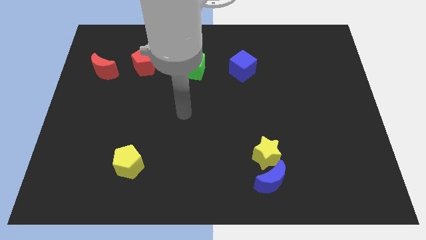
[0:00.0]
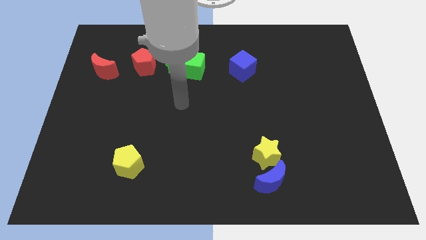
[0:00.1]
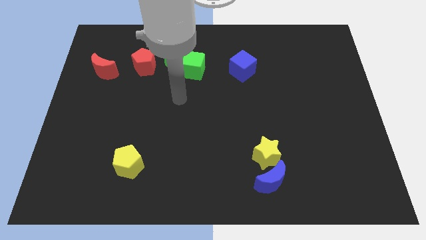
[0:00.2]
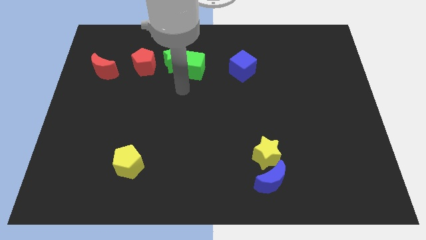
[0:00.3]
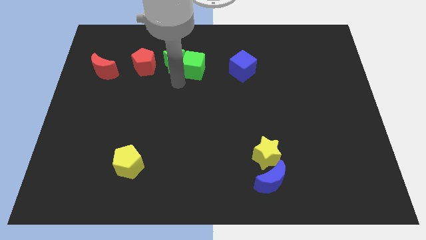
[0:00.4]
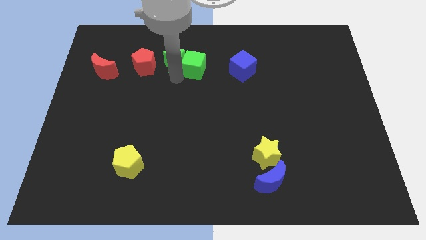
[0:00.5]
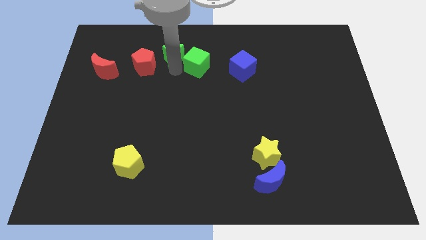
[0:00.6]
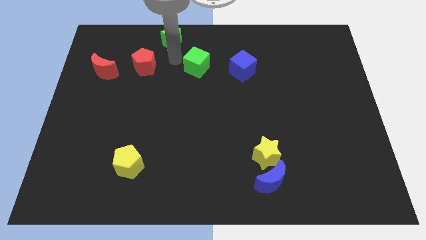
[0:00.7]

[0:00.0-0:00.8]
separate the green cube from the green star

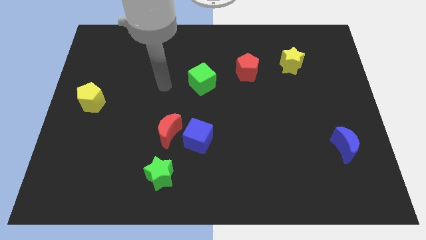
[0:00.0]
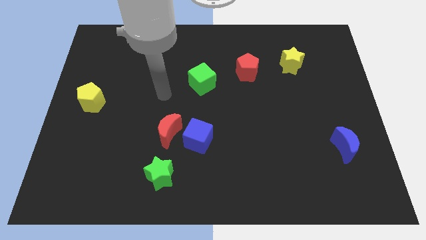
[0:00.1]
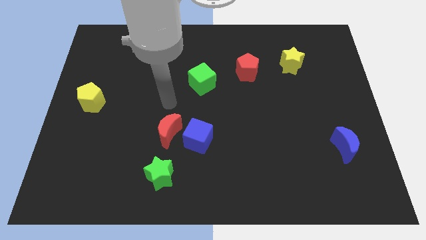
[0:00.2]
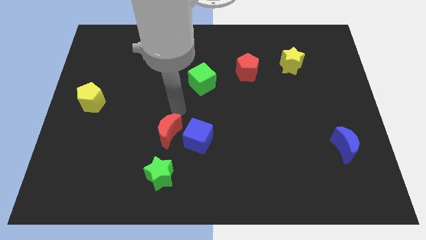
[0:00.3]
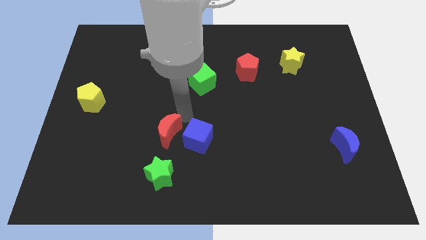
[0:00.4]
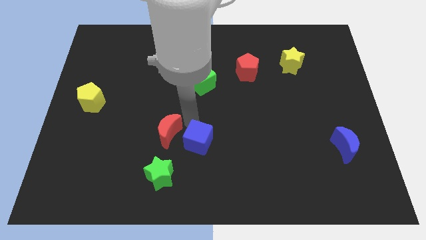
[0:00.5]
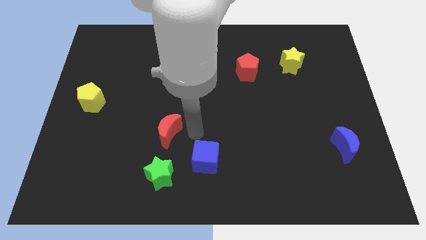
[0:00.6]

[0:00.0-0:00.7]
pull the red moon apart from the blue cube

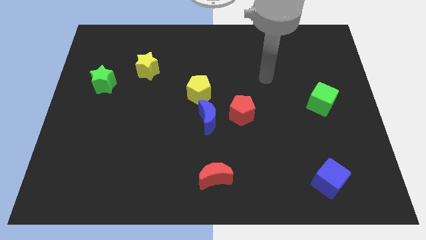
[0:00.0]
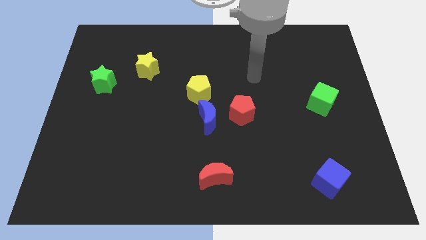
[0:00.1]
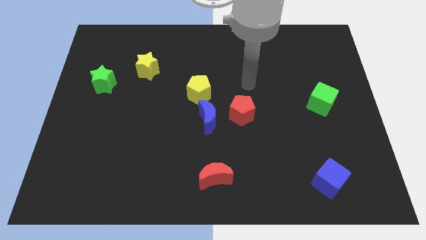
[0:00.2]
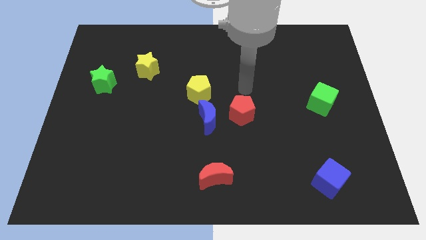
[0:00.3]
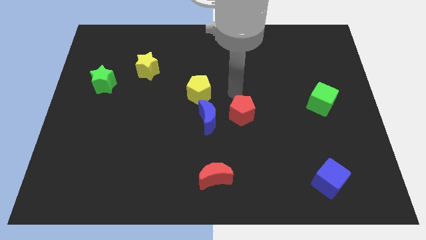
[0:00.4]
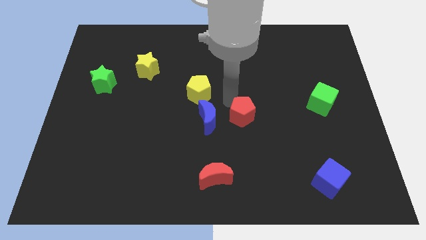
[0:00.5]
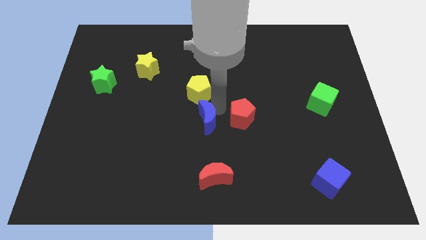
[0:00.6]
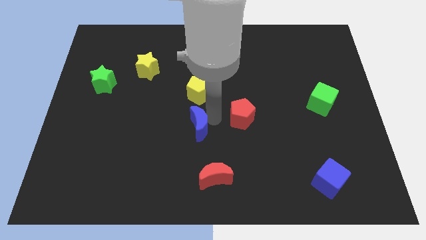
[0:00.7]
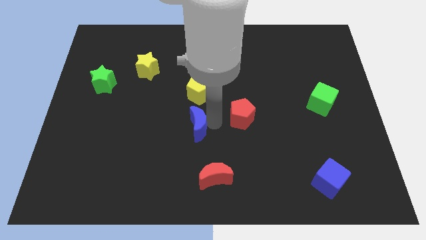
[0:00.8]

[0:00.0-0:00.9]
pull the red pentagon apart from the blue moon

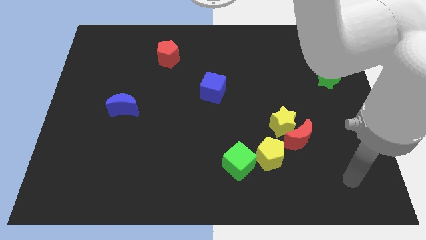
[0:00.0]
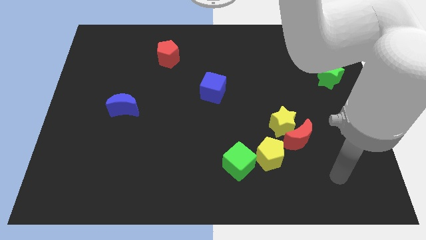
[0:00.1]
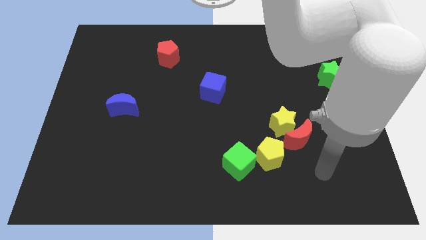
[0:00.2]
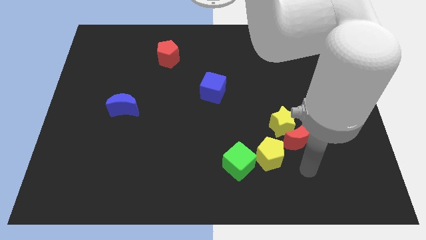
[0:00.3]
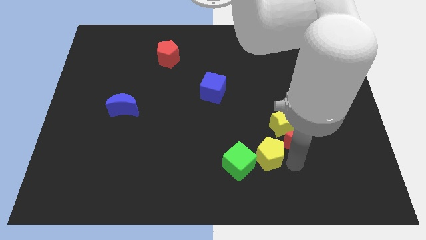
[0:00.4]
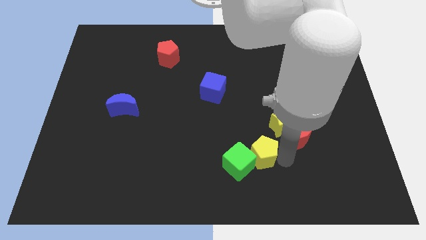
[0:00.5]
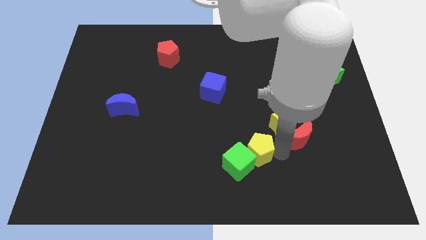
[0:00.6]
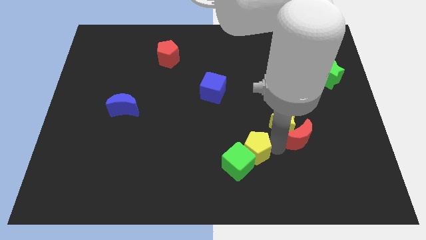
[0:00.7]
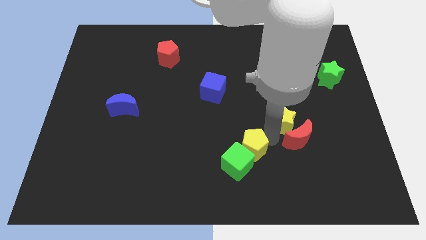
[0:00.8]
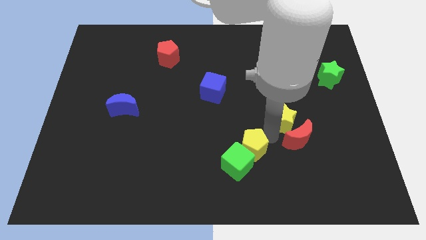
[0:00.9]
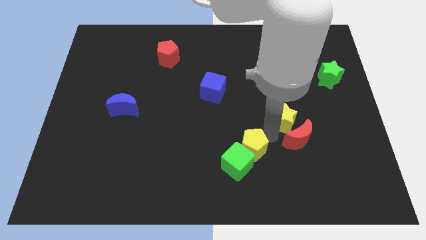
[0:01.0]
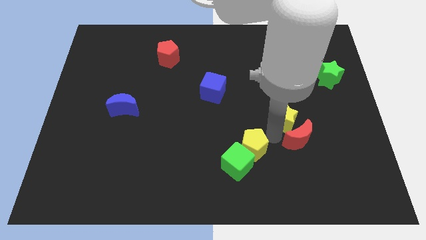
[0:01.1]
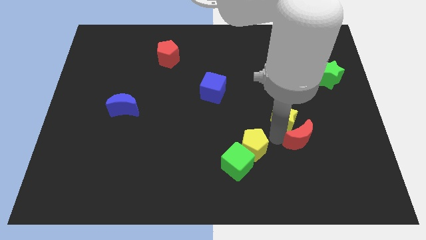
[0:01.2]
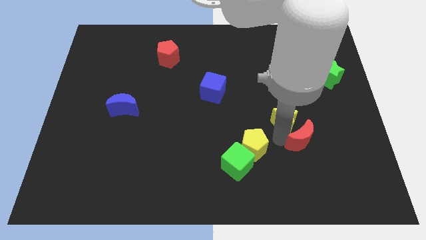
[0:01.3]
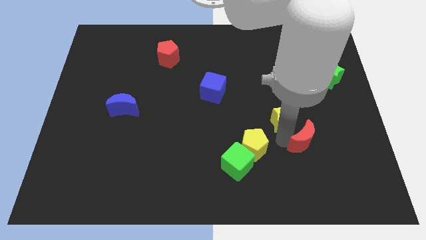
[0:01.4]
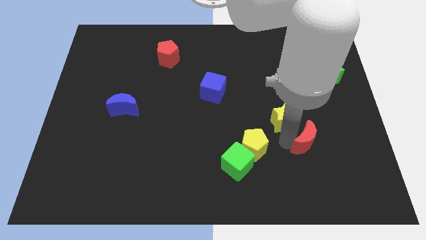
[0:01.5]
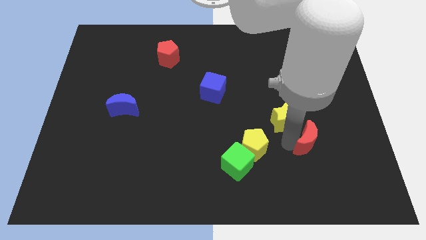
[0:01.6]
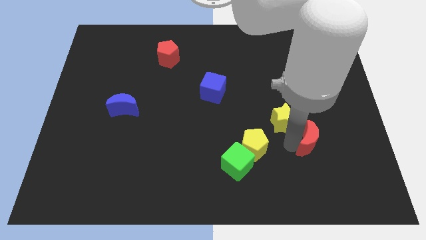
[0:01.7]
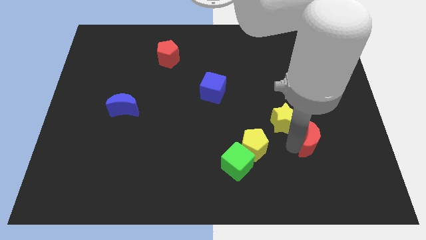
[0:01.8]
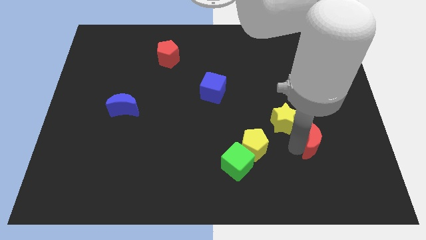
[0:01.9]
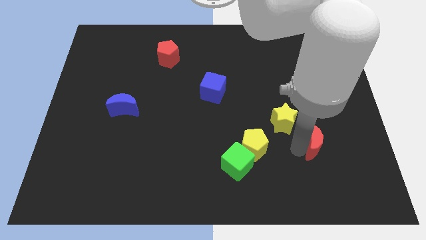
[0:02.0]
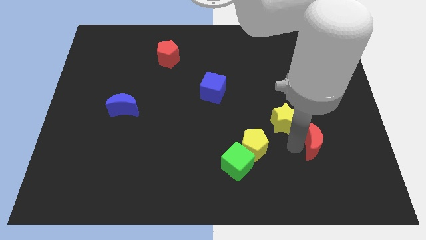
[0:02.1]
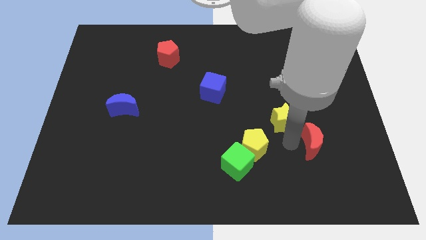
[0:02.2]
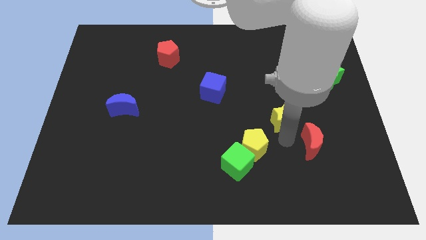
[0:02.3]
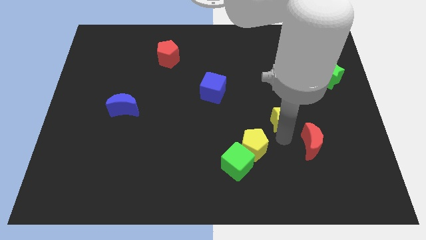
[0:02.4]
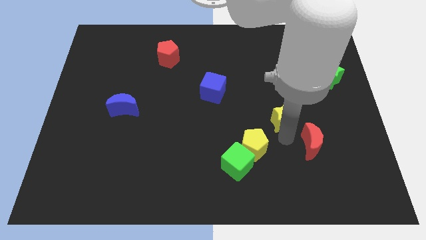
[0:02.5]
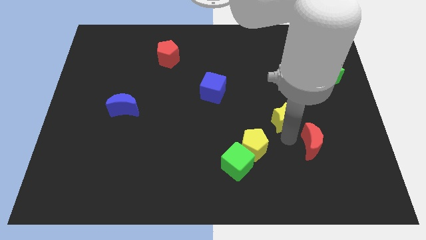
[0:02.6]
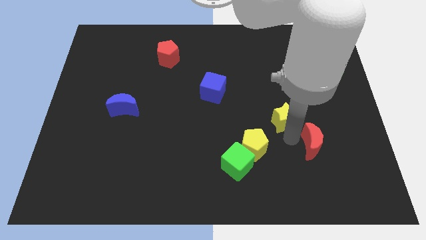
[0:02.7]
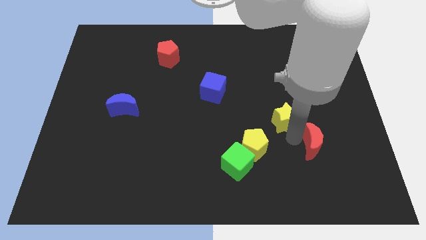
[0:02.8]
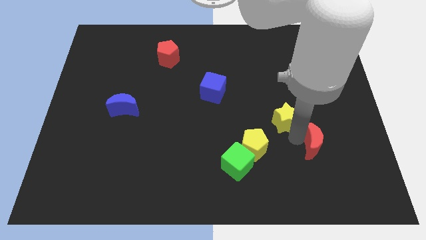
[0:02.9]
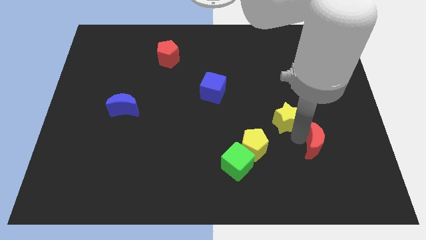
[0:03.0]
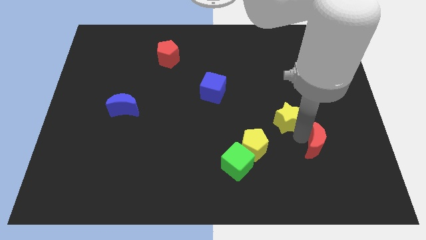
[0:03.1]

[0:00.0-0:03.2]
move the red moon away from the yellow star and yellow pentagon

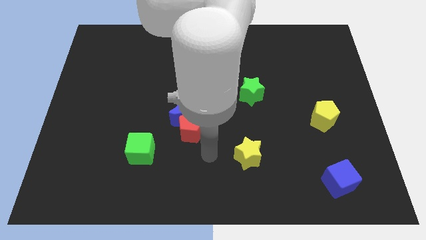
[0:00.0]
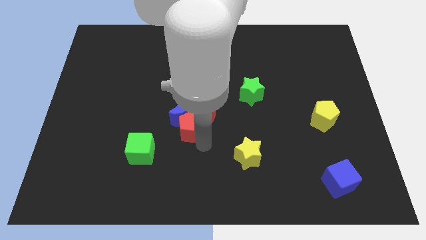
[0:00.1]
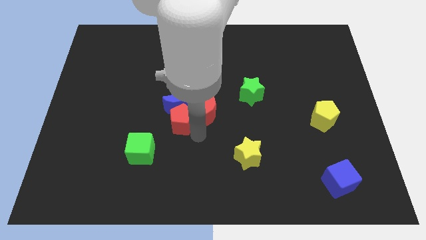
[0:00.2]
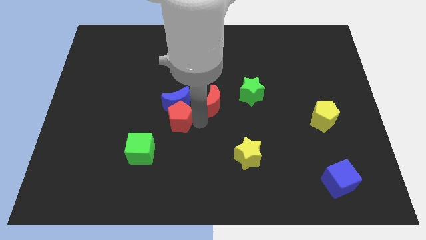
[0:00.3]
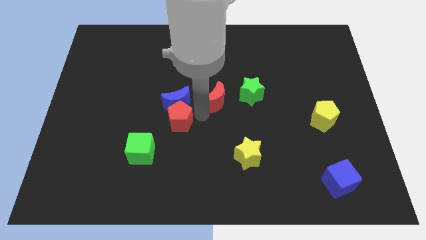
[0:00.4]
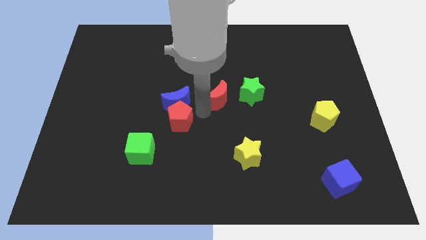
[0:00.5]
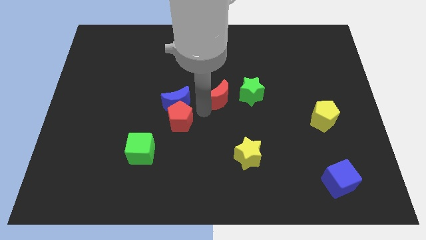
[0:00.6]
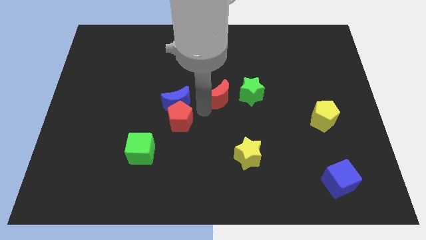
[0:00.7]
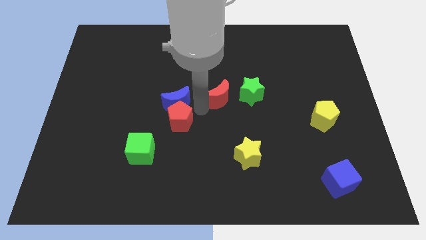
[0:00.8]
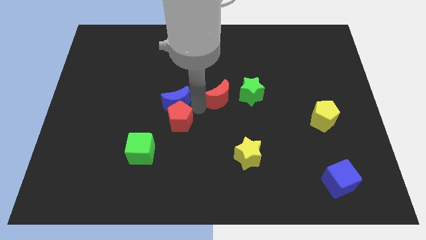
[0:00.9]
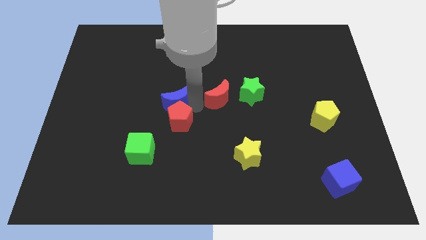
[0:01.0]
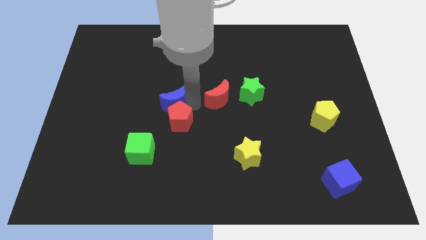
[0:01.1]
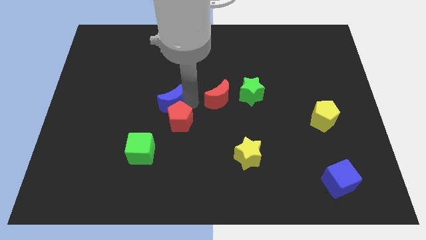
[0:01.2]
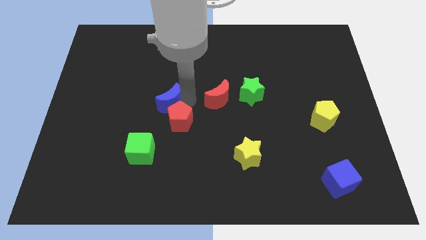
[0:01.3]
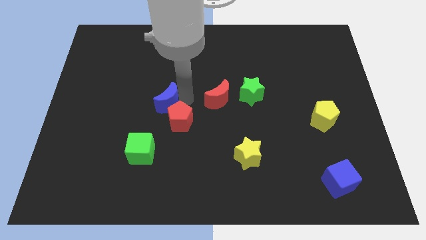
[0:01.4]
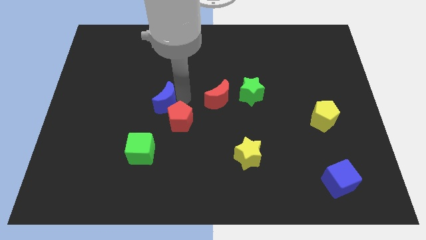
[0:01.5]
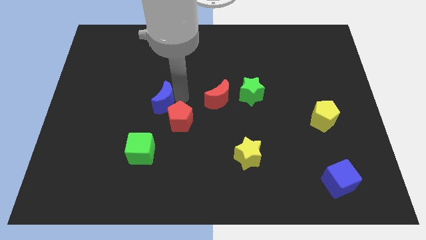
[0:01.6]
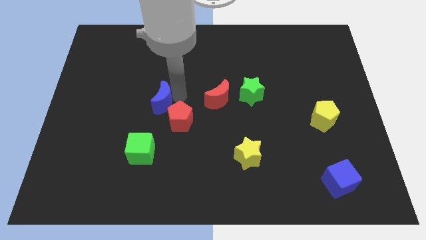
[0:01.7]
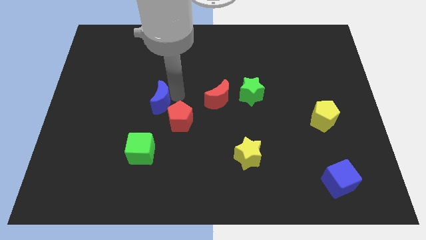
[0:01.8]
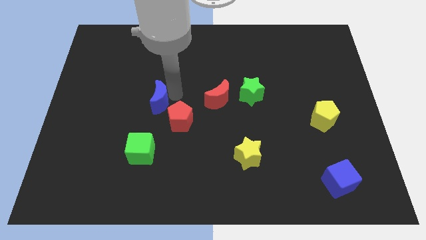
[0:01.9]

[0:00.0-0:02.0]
separate the blue moon from the red pentagon and red moon

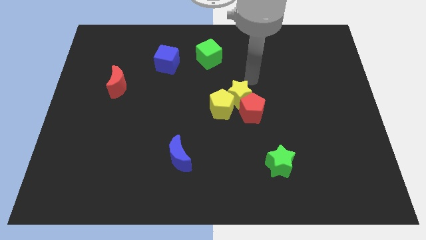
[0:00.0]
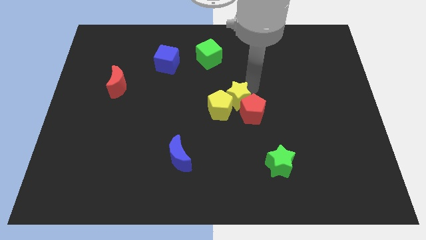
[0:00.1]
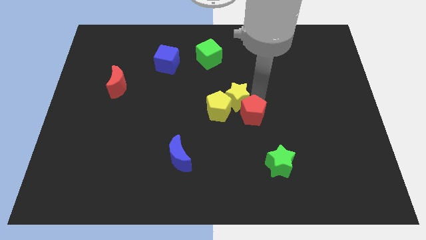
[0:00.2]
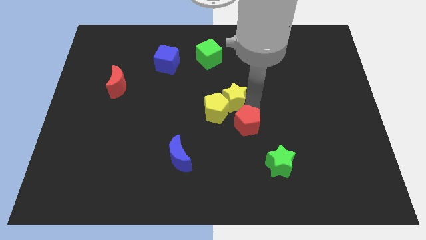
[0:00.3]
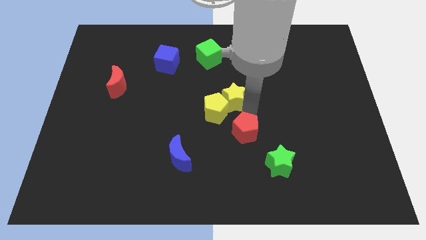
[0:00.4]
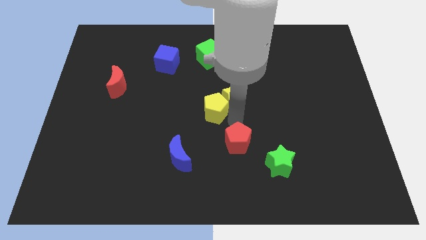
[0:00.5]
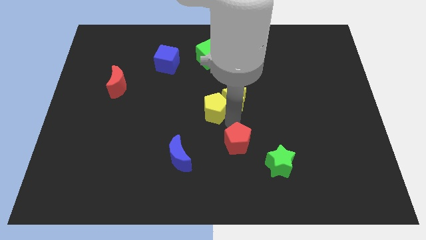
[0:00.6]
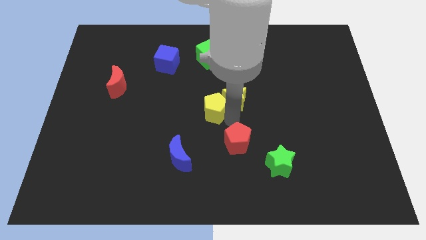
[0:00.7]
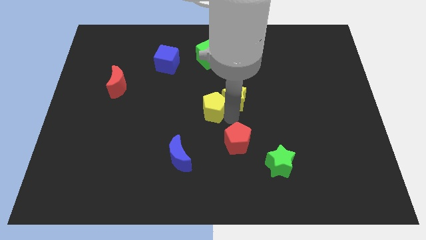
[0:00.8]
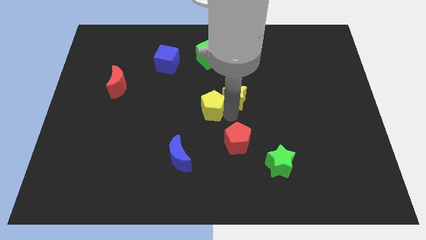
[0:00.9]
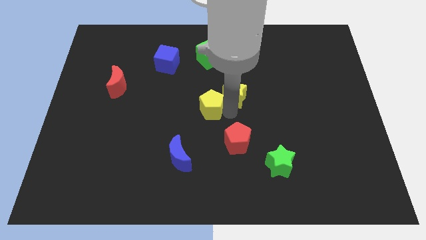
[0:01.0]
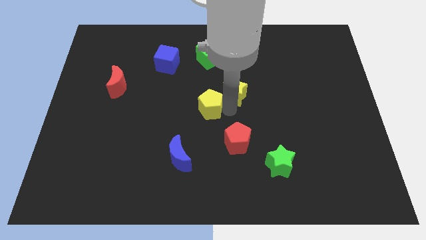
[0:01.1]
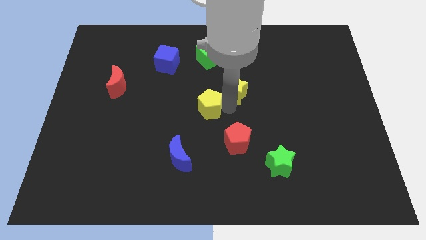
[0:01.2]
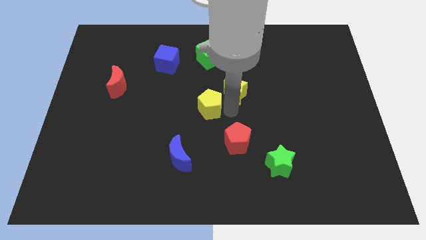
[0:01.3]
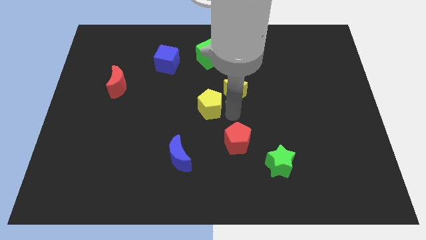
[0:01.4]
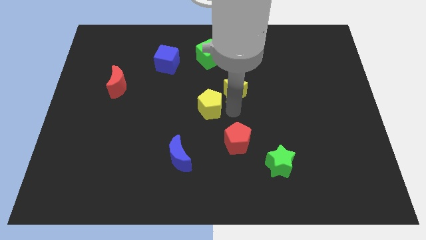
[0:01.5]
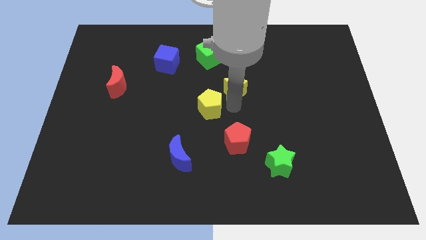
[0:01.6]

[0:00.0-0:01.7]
move the yellow star away from the yellow pentagon and red pentagon
